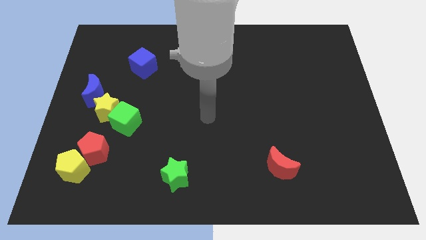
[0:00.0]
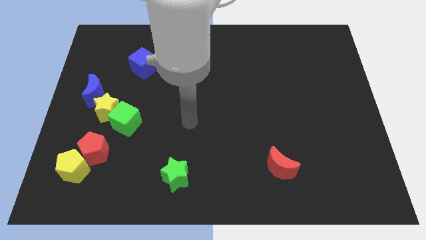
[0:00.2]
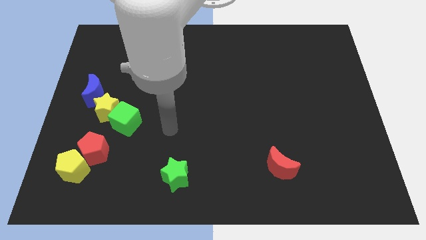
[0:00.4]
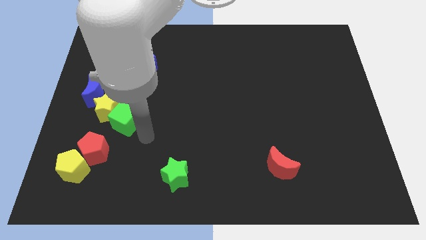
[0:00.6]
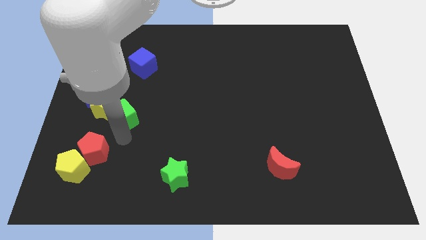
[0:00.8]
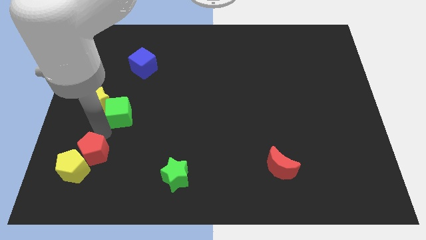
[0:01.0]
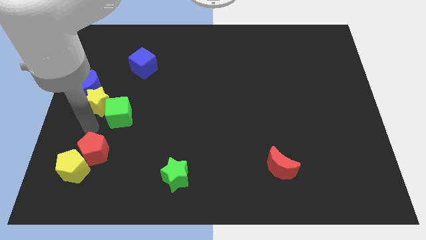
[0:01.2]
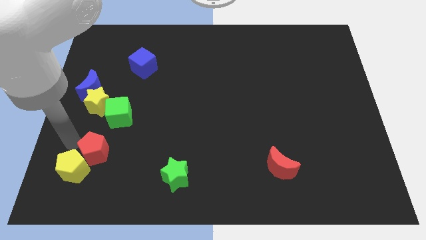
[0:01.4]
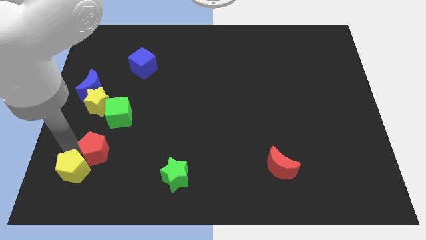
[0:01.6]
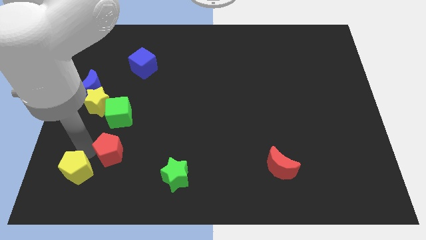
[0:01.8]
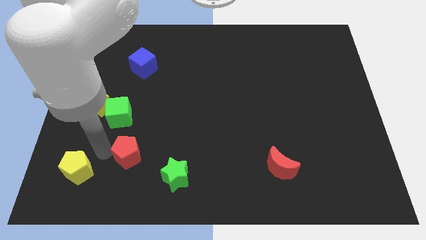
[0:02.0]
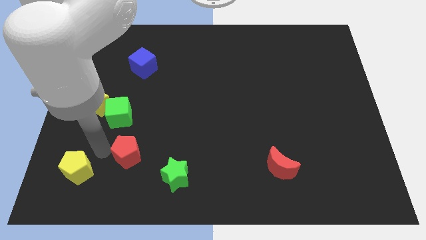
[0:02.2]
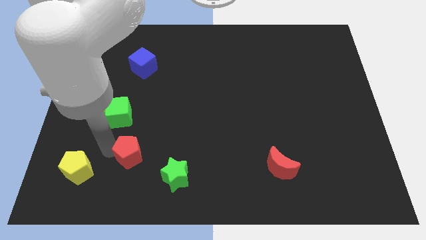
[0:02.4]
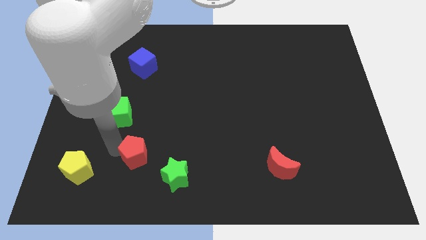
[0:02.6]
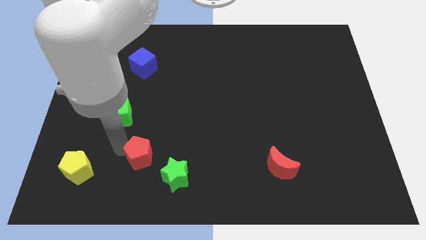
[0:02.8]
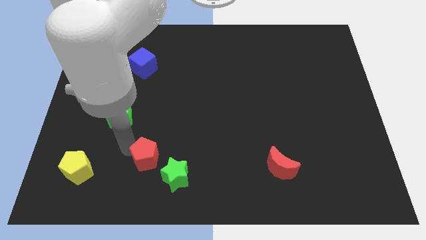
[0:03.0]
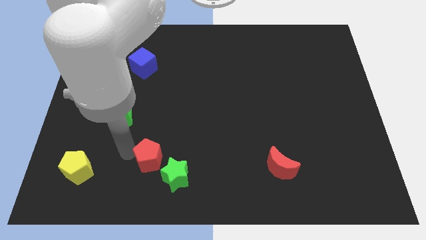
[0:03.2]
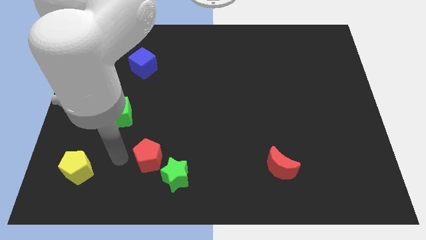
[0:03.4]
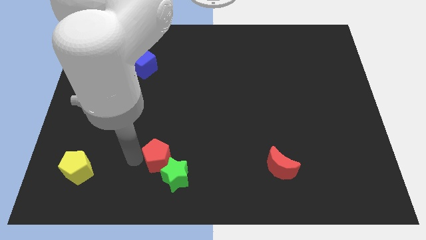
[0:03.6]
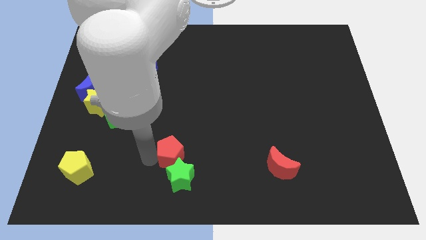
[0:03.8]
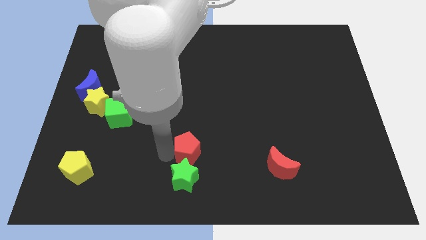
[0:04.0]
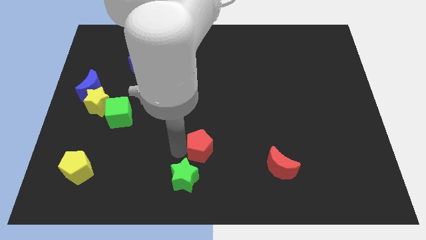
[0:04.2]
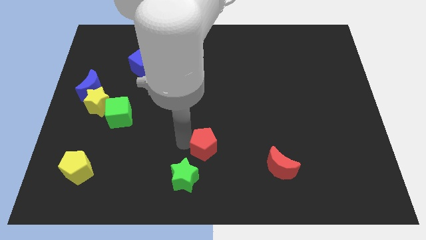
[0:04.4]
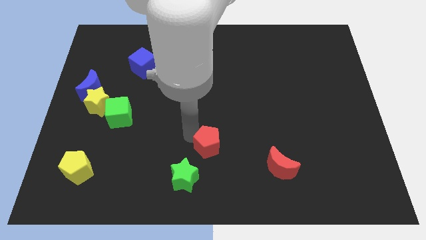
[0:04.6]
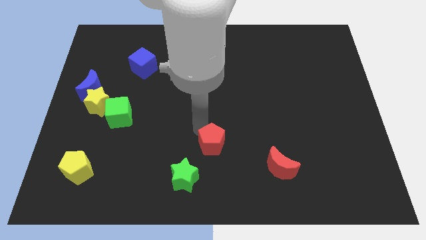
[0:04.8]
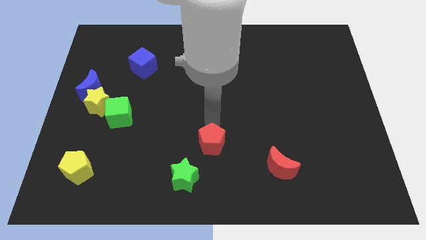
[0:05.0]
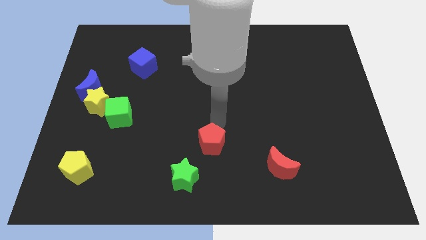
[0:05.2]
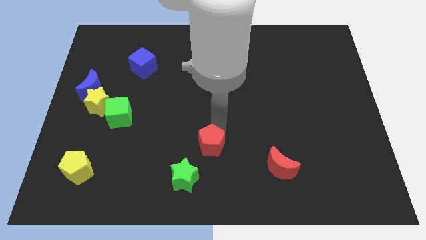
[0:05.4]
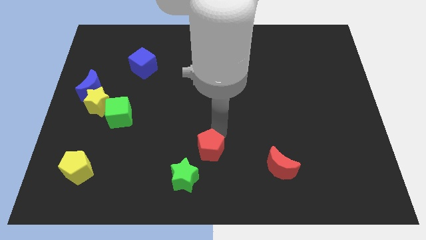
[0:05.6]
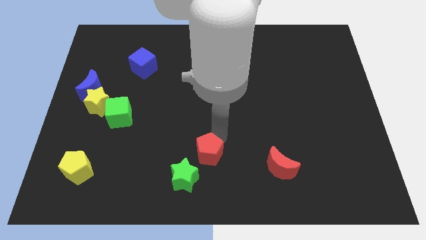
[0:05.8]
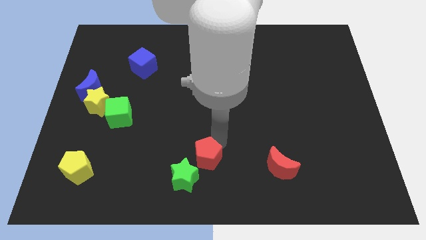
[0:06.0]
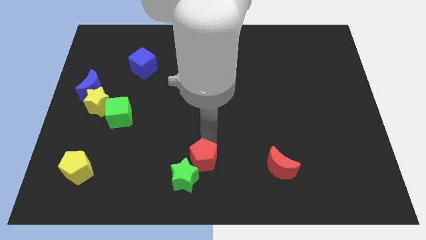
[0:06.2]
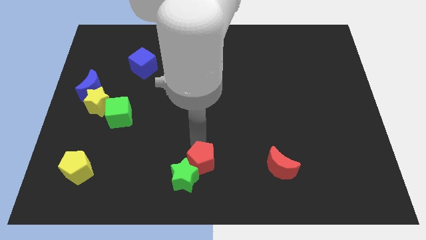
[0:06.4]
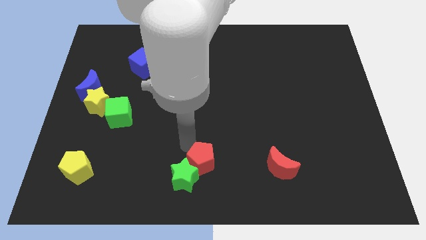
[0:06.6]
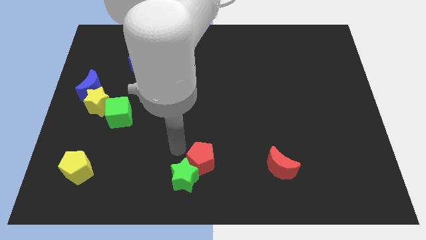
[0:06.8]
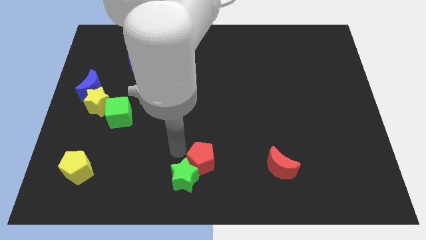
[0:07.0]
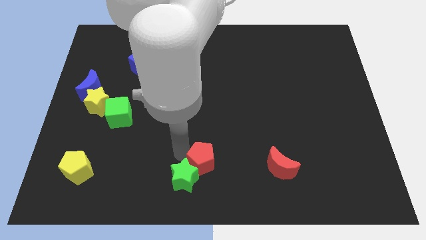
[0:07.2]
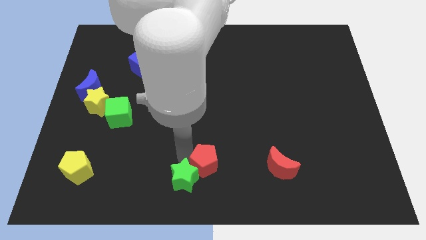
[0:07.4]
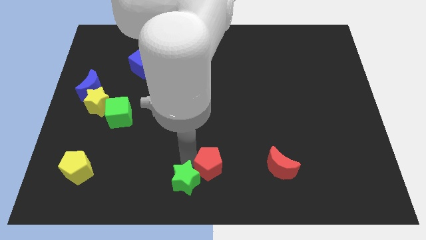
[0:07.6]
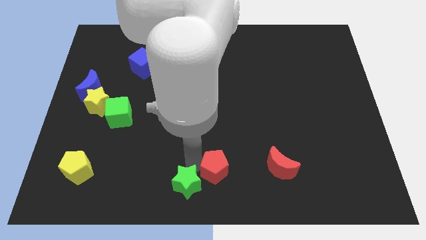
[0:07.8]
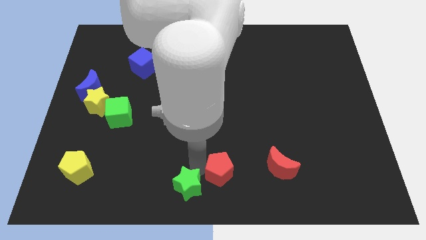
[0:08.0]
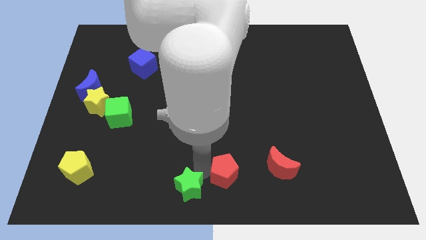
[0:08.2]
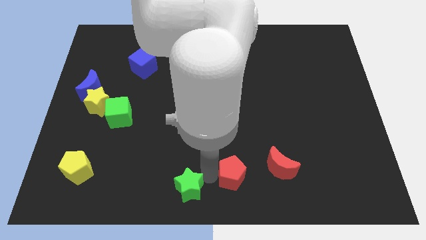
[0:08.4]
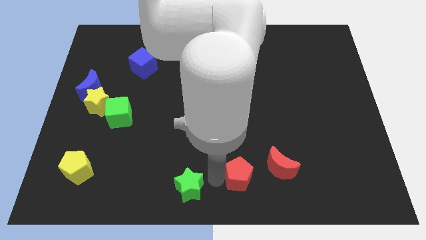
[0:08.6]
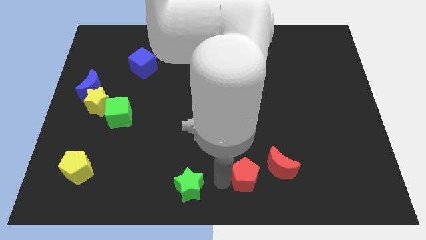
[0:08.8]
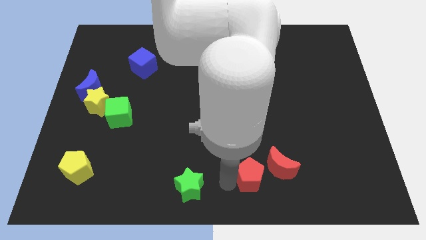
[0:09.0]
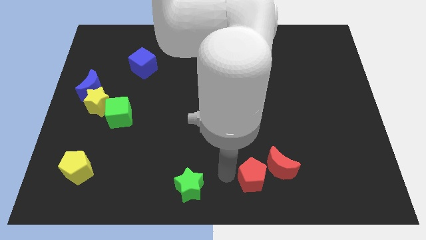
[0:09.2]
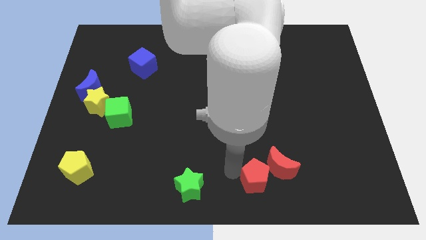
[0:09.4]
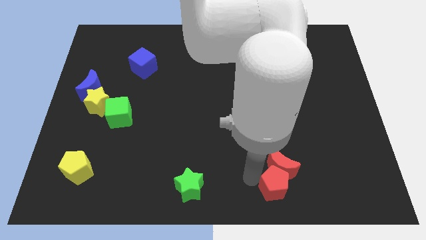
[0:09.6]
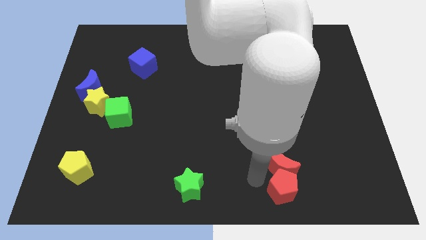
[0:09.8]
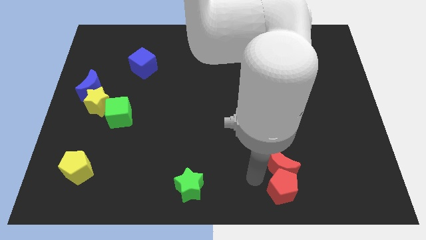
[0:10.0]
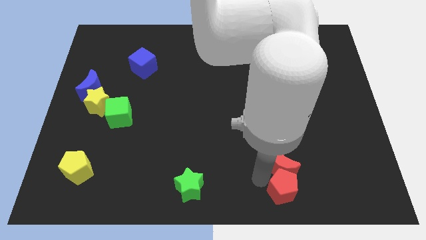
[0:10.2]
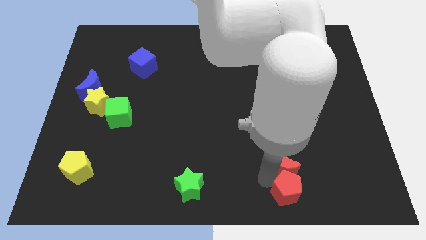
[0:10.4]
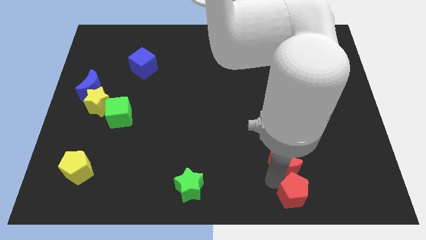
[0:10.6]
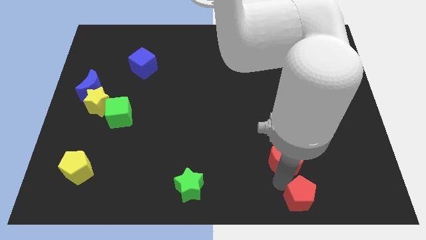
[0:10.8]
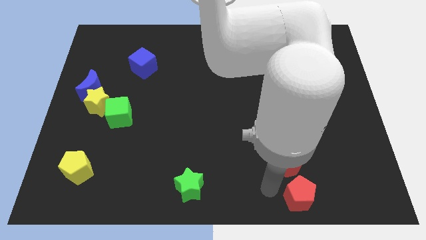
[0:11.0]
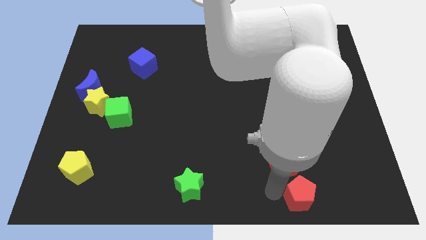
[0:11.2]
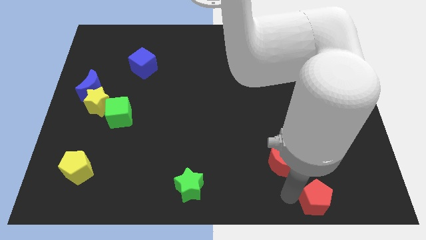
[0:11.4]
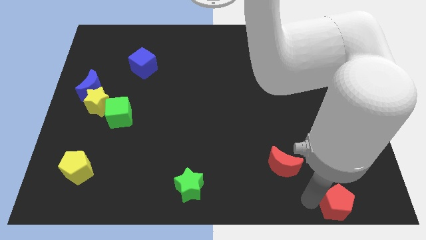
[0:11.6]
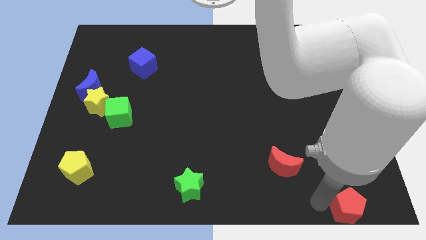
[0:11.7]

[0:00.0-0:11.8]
push the red pentagon to the bottom right of the board
